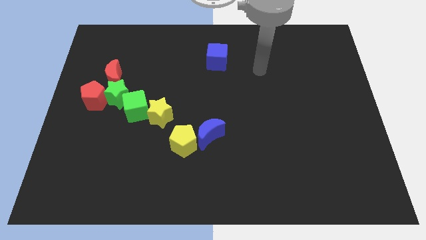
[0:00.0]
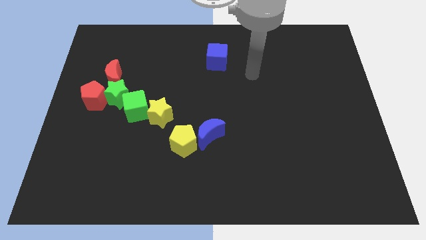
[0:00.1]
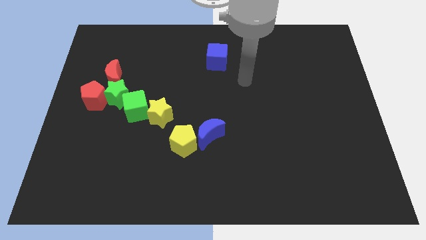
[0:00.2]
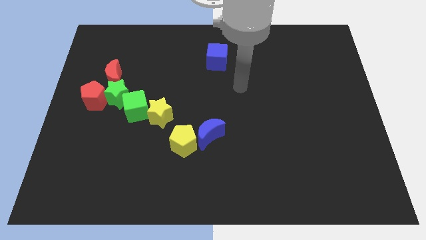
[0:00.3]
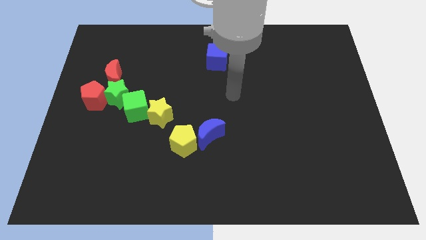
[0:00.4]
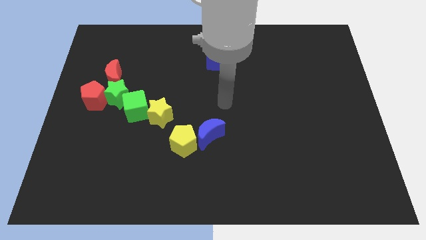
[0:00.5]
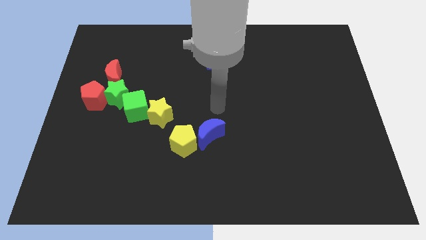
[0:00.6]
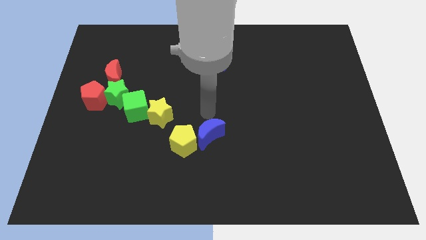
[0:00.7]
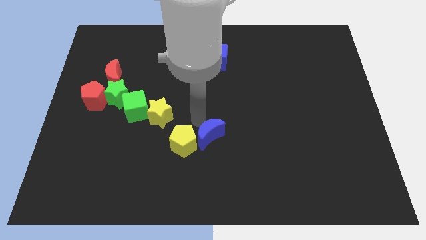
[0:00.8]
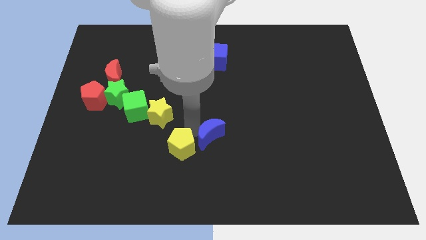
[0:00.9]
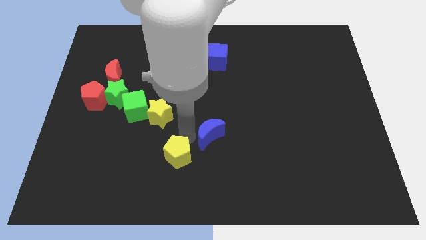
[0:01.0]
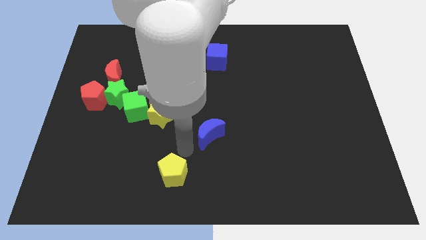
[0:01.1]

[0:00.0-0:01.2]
move the blue moon away from the yellow pentagon

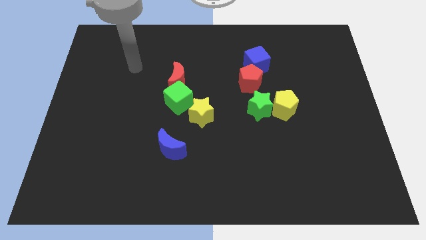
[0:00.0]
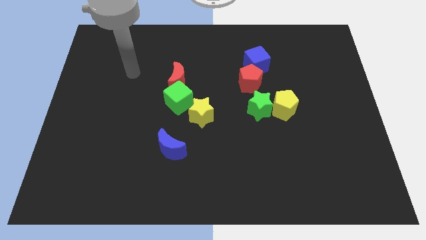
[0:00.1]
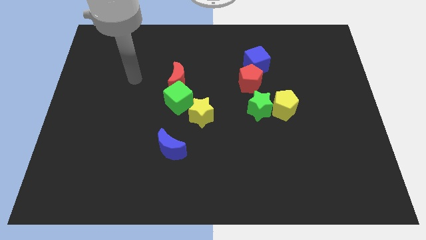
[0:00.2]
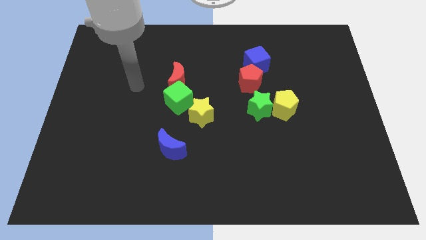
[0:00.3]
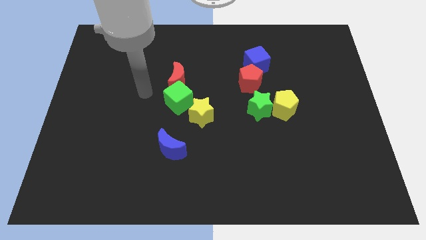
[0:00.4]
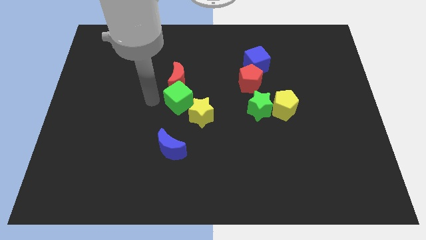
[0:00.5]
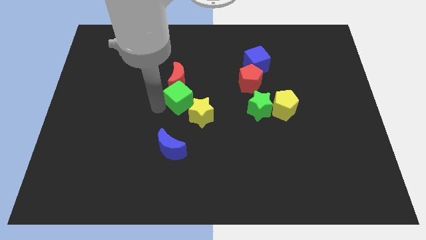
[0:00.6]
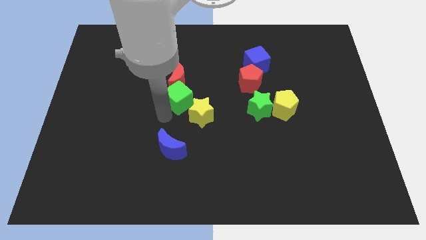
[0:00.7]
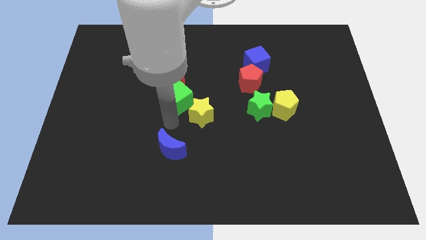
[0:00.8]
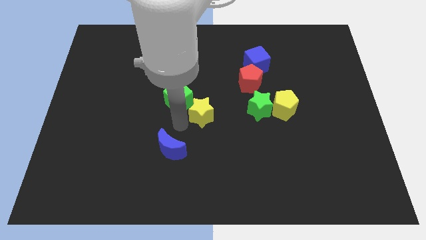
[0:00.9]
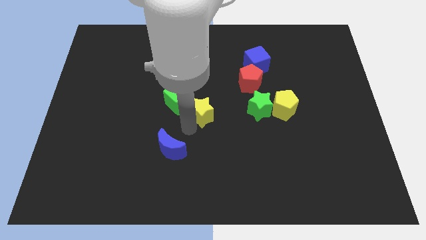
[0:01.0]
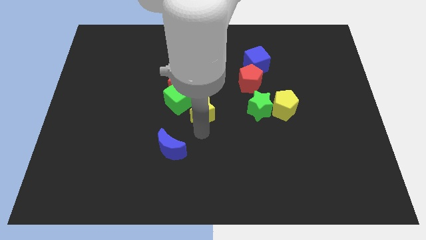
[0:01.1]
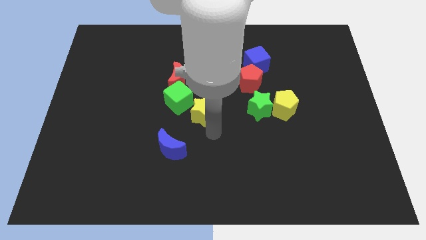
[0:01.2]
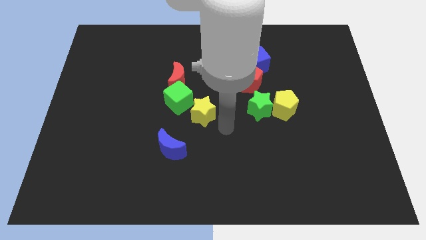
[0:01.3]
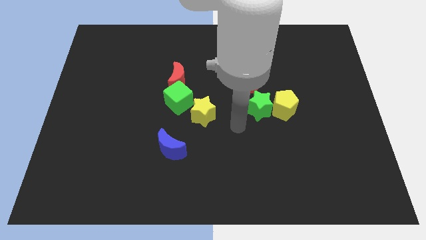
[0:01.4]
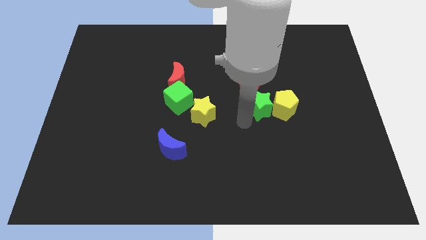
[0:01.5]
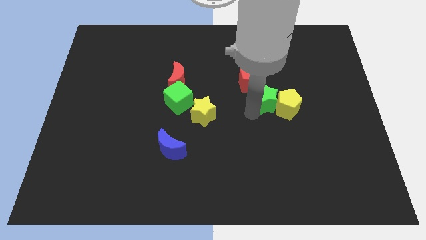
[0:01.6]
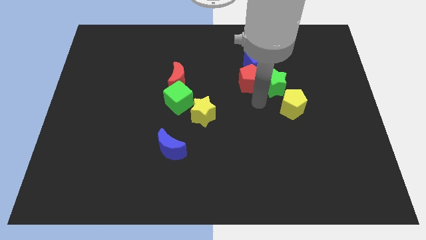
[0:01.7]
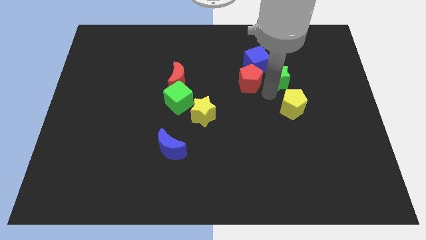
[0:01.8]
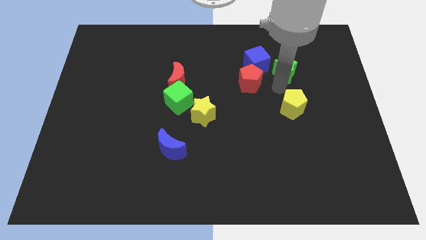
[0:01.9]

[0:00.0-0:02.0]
separate the yellow pentagon from the green star

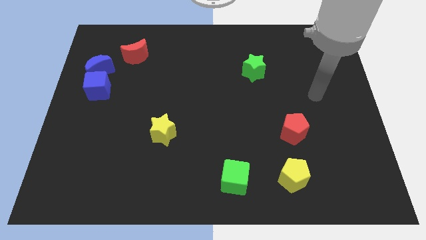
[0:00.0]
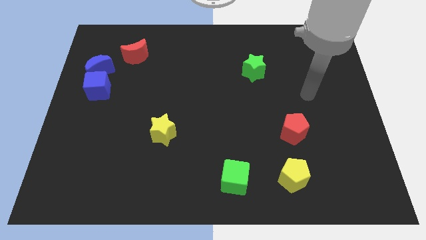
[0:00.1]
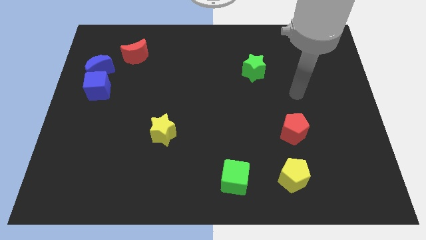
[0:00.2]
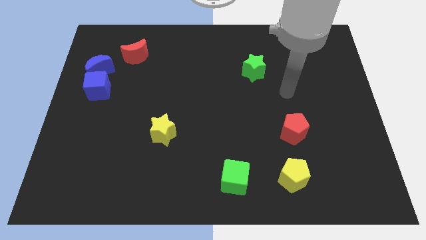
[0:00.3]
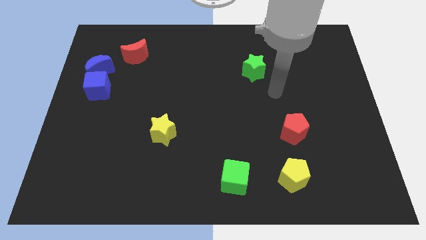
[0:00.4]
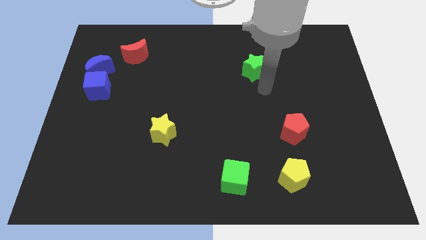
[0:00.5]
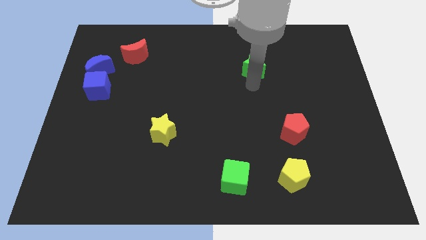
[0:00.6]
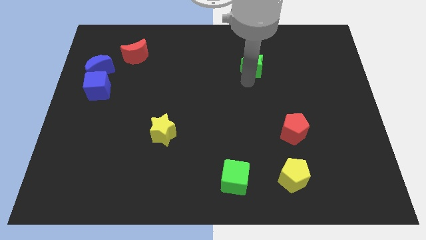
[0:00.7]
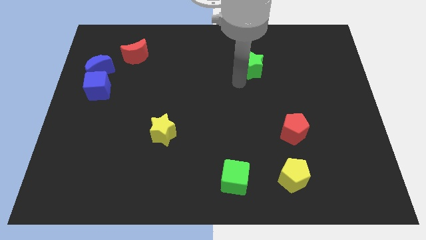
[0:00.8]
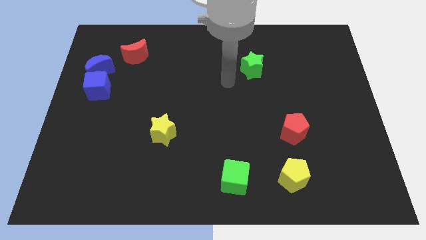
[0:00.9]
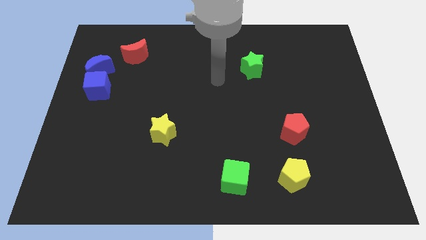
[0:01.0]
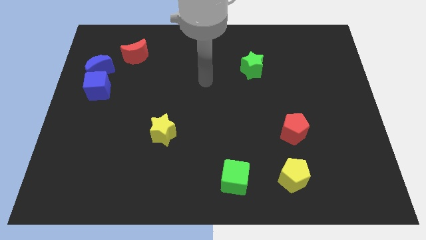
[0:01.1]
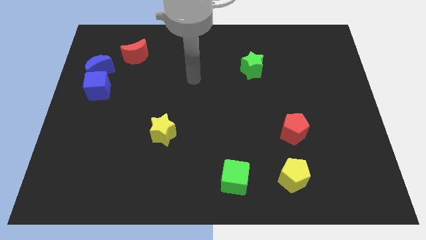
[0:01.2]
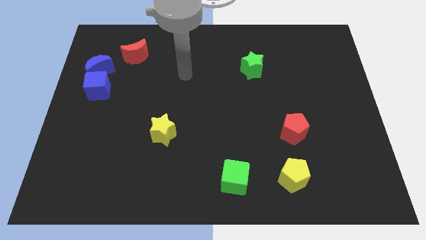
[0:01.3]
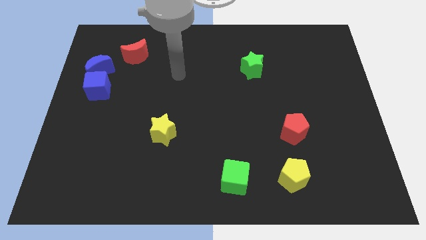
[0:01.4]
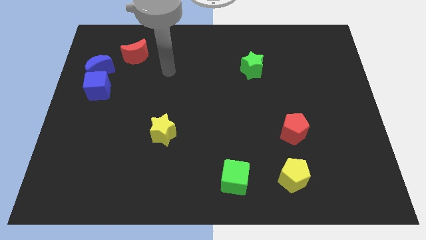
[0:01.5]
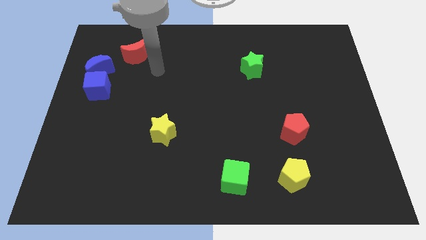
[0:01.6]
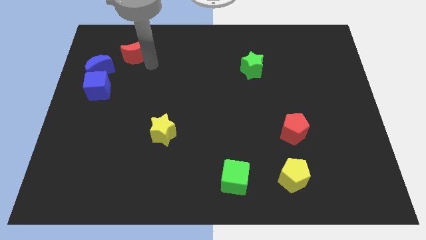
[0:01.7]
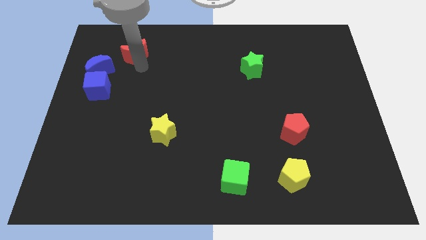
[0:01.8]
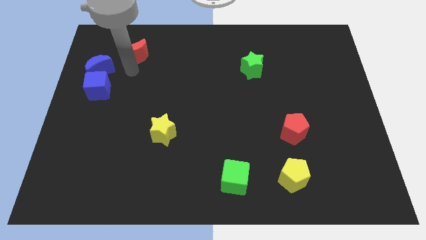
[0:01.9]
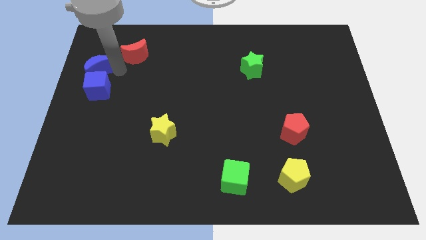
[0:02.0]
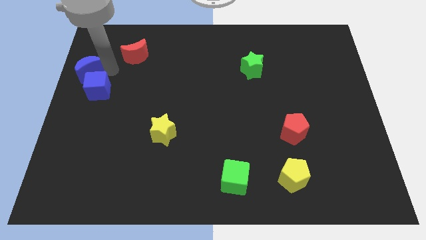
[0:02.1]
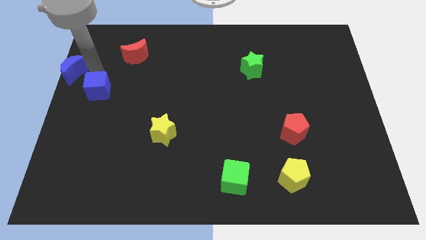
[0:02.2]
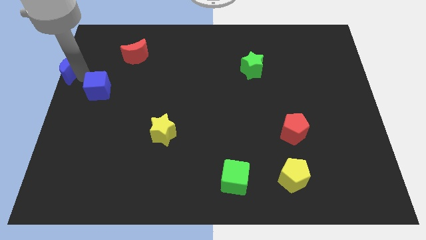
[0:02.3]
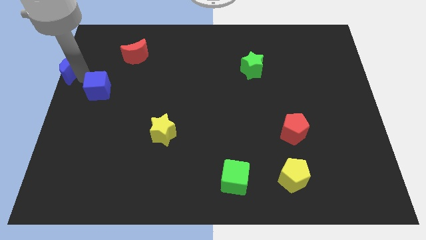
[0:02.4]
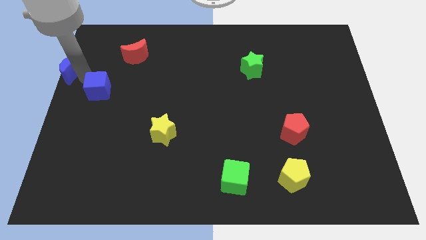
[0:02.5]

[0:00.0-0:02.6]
separate the blue cube from the blue moon

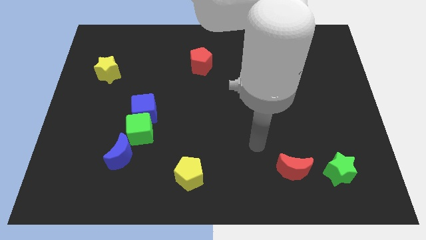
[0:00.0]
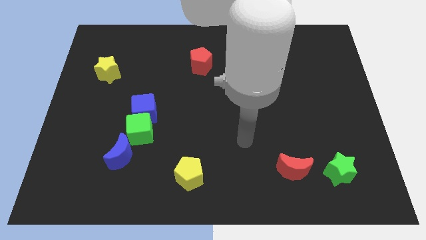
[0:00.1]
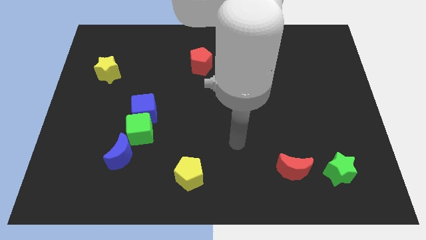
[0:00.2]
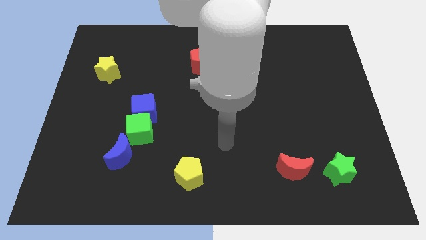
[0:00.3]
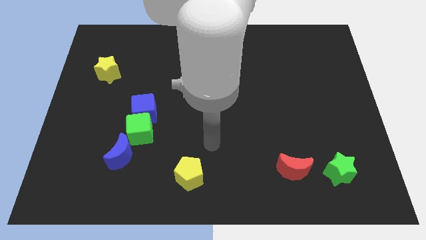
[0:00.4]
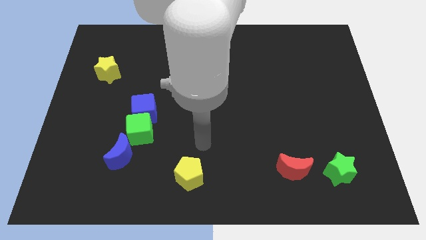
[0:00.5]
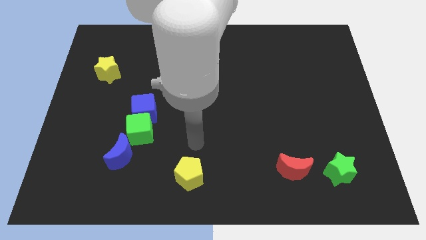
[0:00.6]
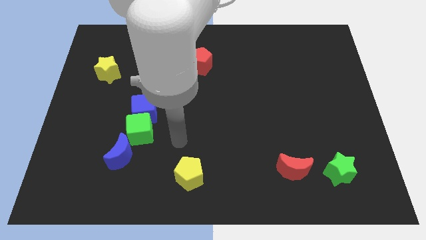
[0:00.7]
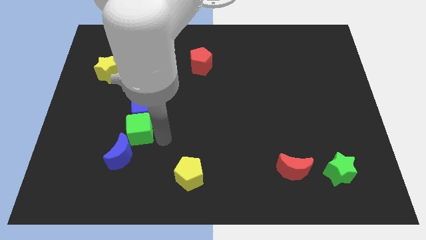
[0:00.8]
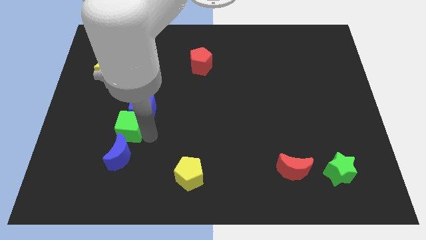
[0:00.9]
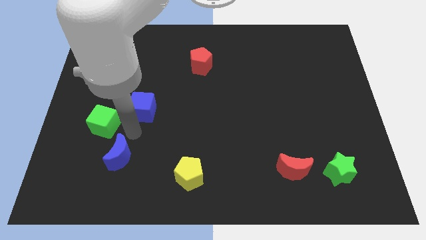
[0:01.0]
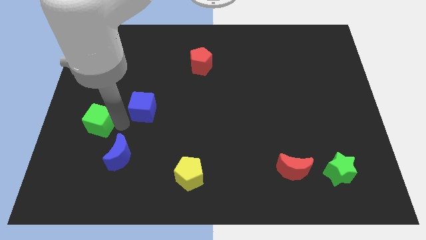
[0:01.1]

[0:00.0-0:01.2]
move the blue cube away from the green cube

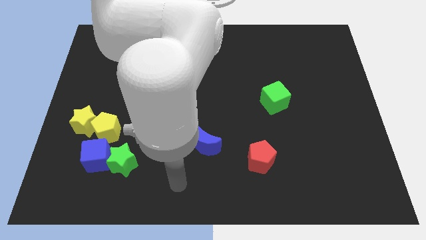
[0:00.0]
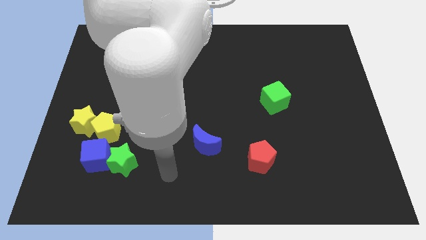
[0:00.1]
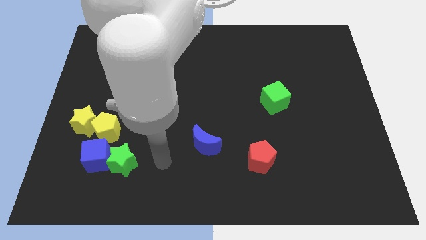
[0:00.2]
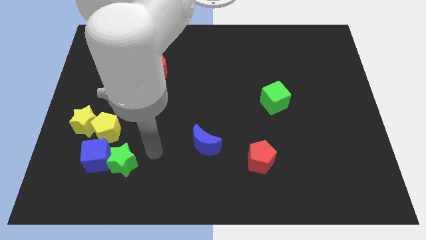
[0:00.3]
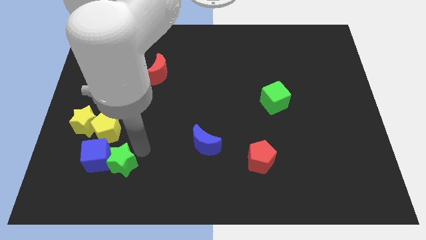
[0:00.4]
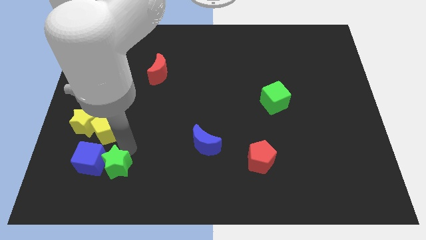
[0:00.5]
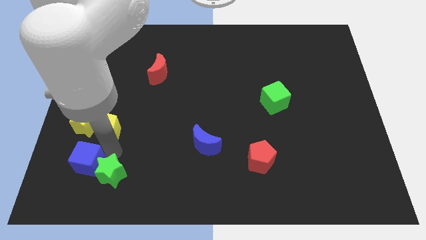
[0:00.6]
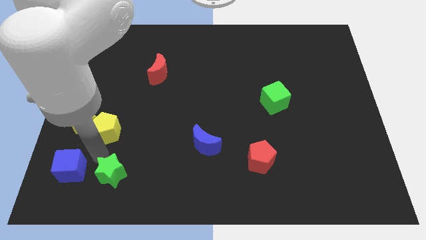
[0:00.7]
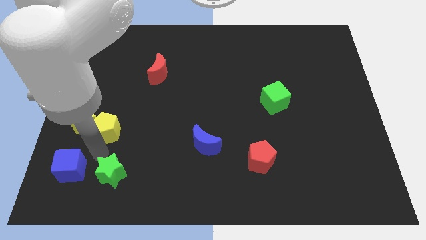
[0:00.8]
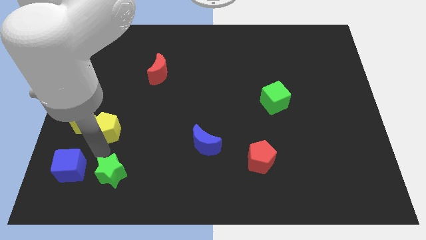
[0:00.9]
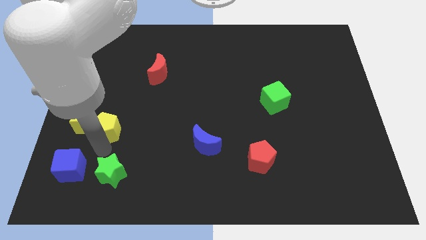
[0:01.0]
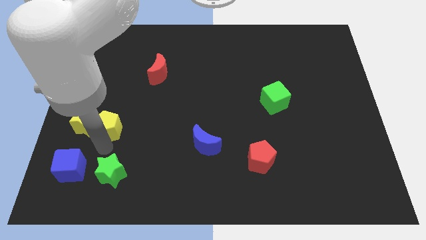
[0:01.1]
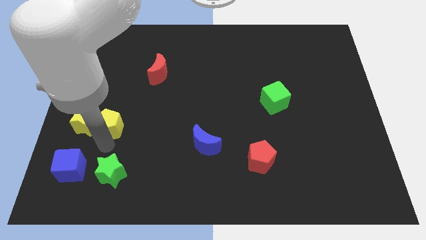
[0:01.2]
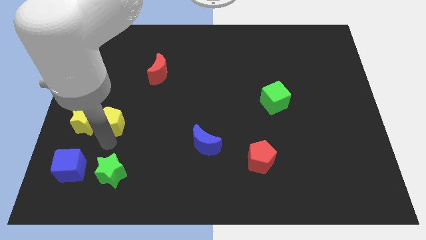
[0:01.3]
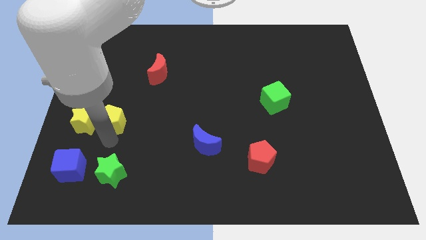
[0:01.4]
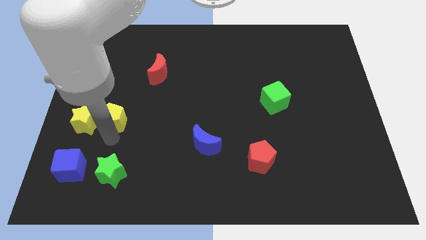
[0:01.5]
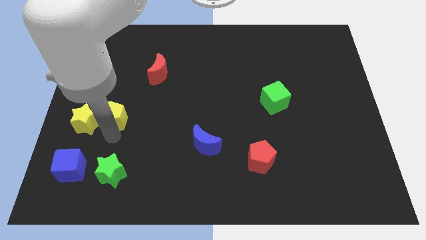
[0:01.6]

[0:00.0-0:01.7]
pull the yellow pentagon apart from the group of blocks

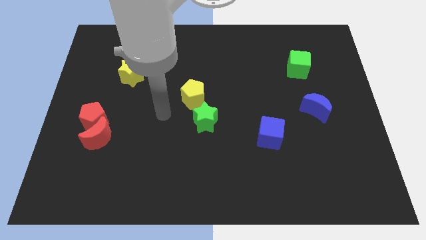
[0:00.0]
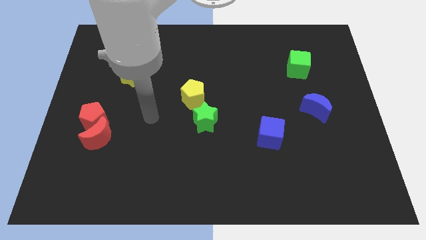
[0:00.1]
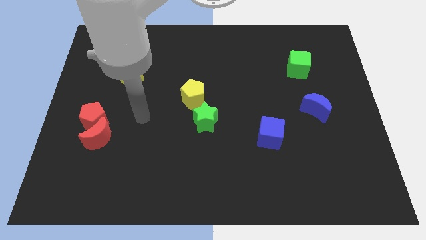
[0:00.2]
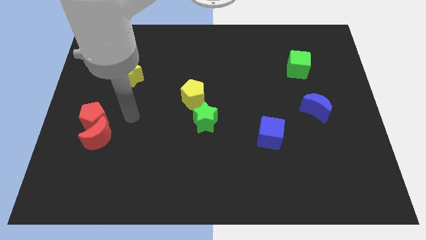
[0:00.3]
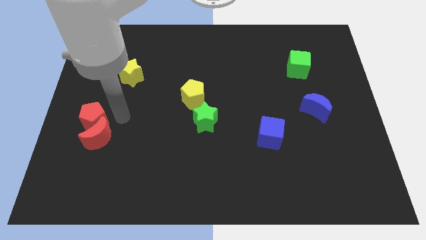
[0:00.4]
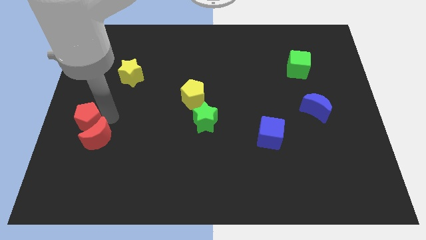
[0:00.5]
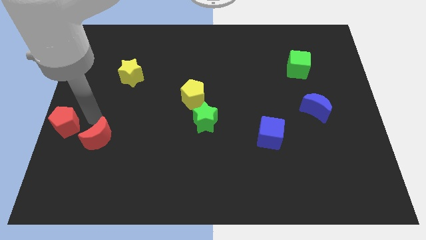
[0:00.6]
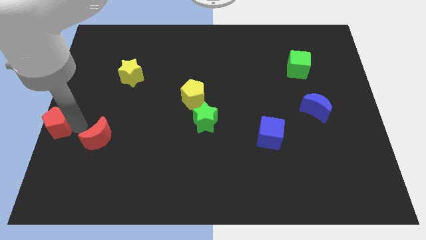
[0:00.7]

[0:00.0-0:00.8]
move the red moon away from the red pentagon
